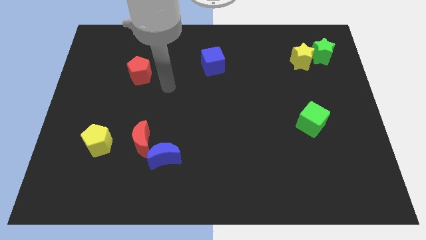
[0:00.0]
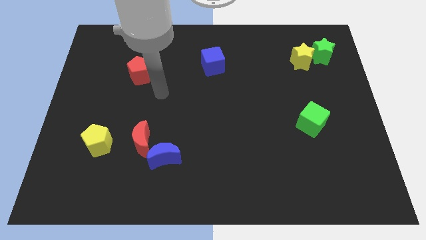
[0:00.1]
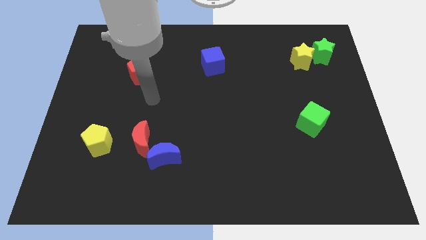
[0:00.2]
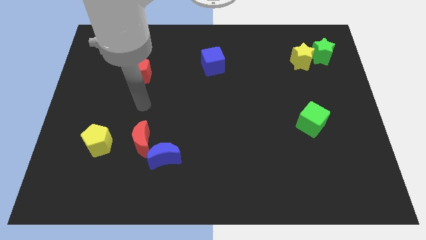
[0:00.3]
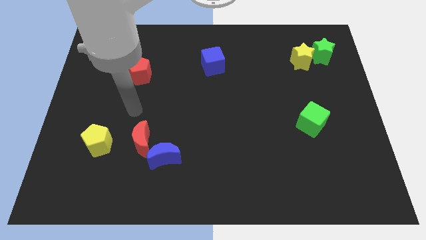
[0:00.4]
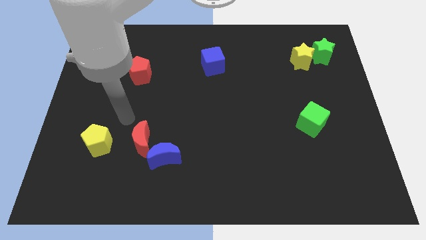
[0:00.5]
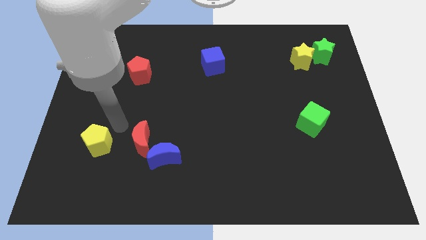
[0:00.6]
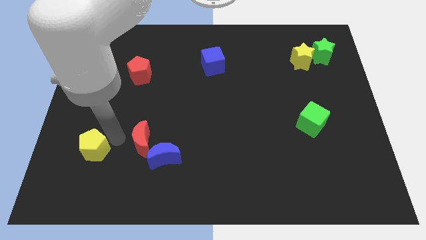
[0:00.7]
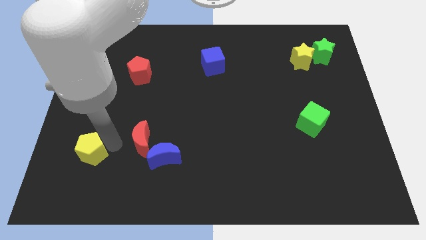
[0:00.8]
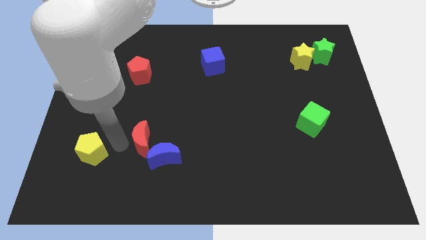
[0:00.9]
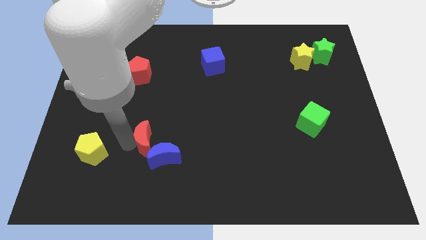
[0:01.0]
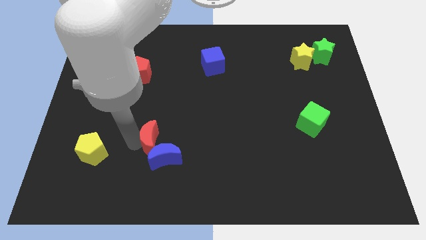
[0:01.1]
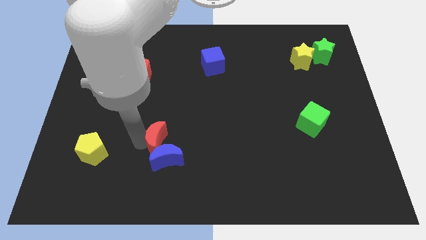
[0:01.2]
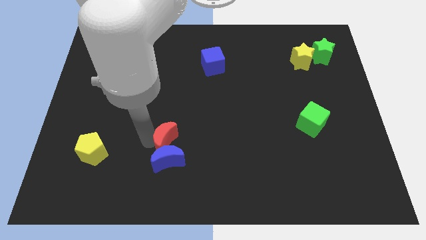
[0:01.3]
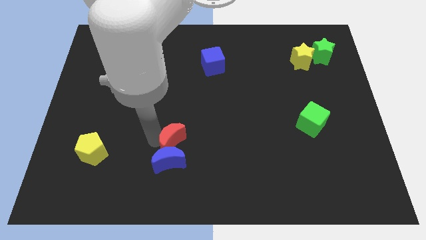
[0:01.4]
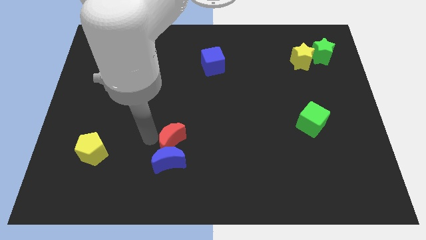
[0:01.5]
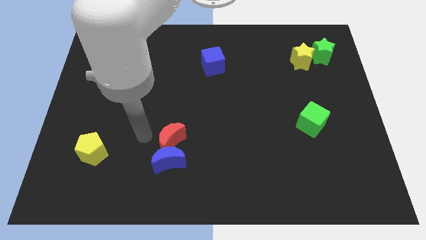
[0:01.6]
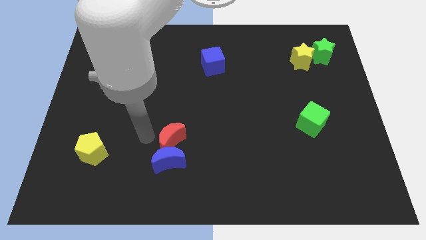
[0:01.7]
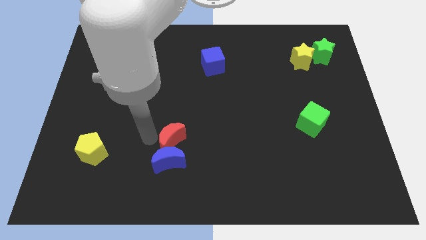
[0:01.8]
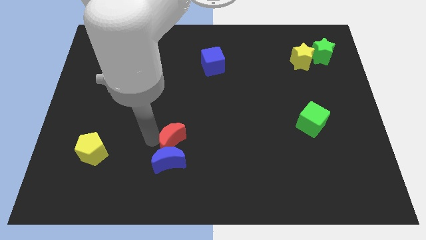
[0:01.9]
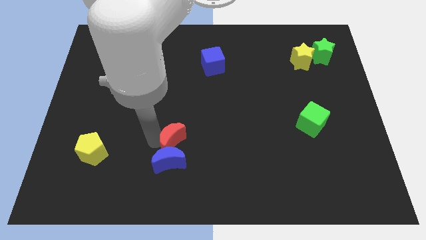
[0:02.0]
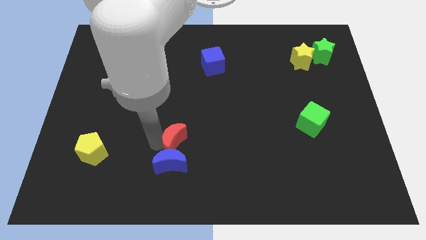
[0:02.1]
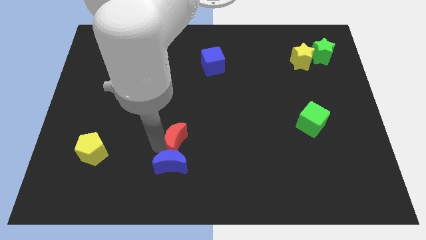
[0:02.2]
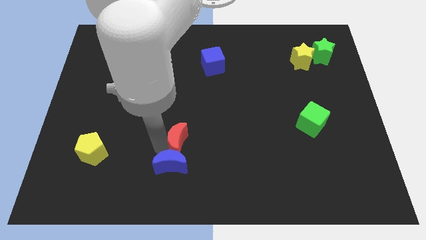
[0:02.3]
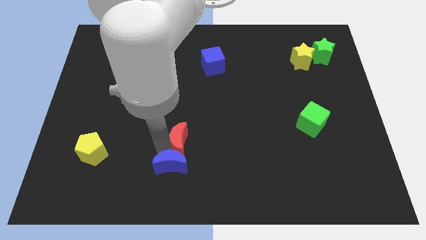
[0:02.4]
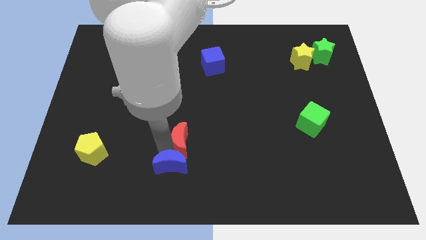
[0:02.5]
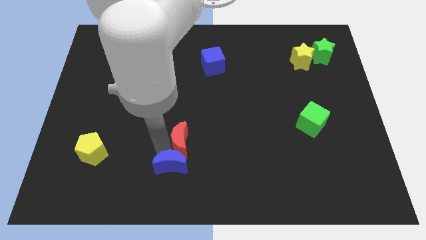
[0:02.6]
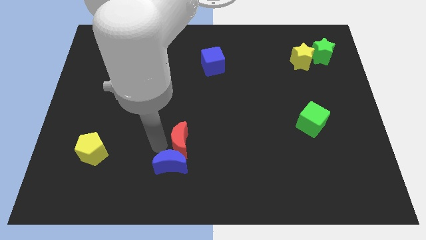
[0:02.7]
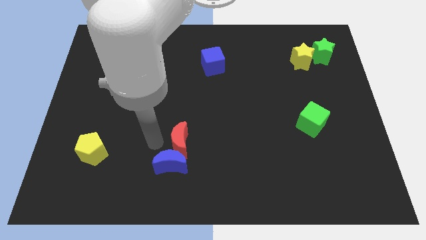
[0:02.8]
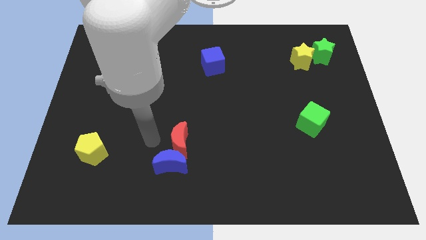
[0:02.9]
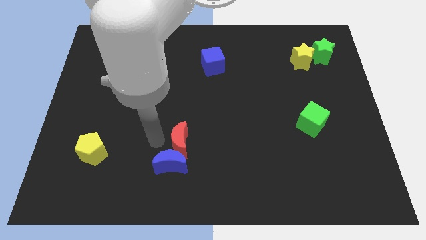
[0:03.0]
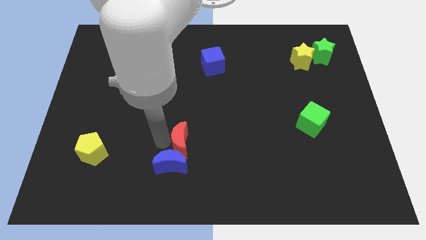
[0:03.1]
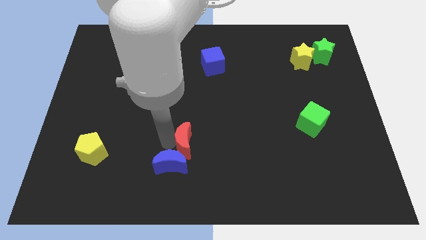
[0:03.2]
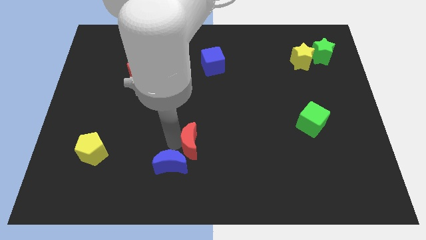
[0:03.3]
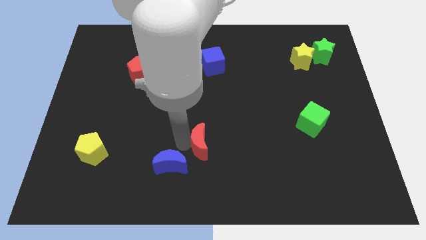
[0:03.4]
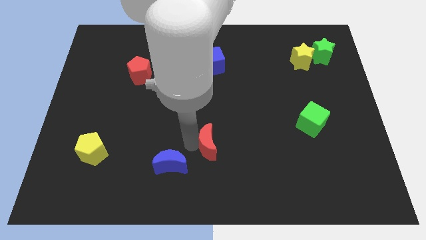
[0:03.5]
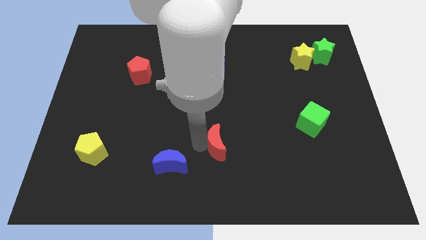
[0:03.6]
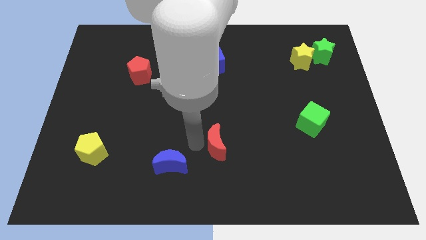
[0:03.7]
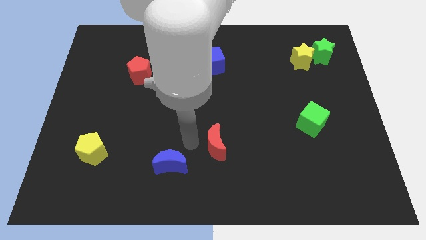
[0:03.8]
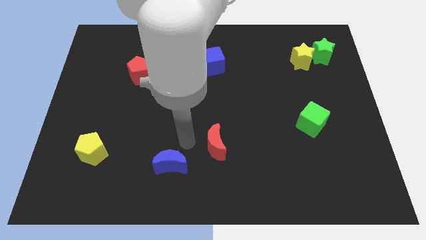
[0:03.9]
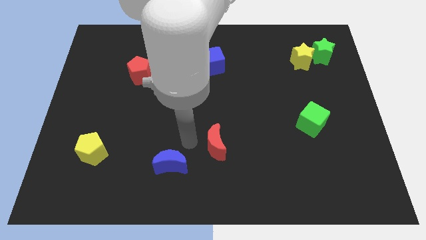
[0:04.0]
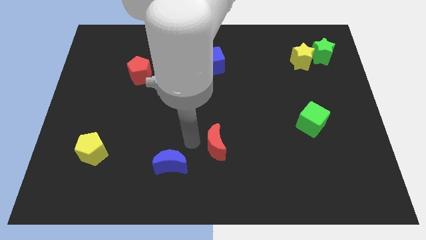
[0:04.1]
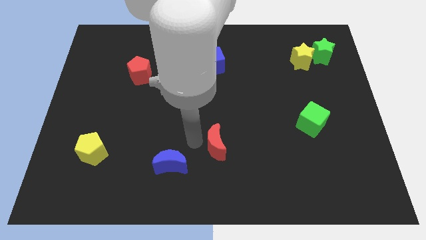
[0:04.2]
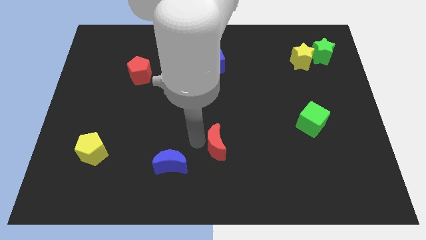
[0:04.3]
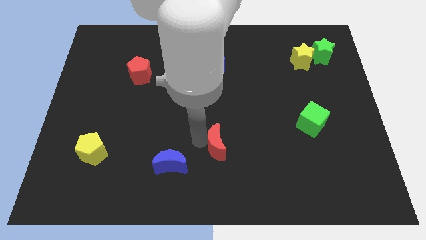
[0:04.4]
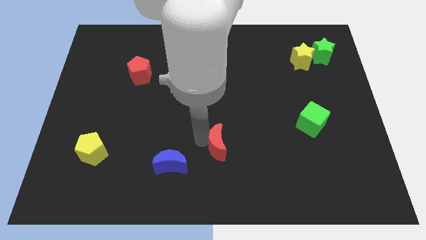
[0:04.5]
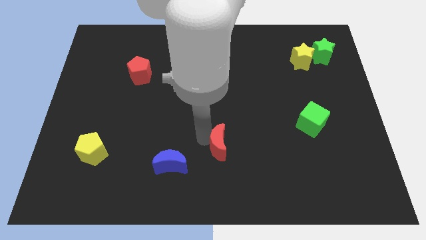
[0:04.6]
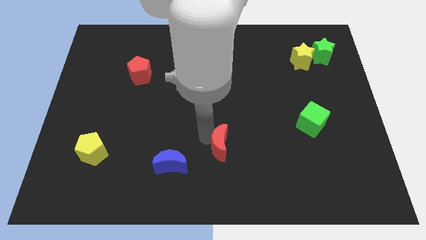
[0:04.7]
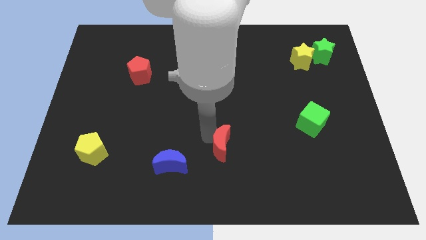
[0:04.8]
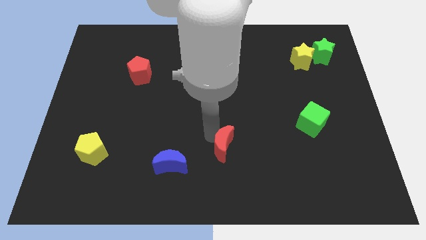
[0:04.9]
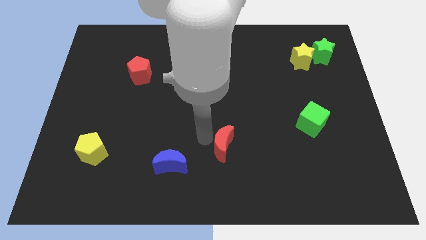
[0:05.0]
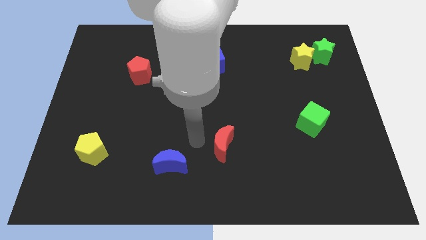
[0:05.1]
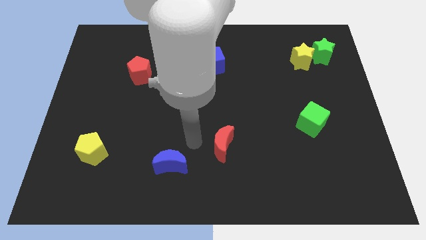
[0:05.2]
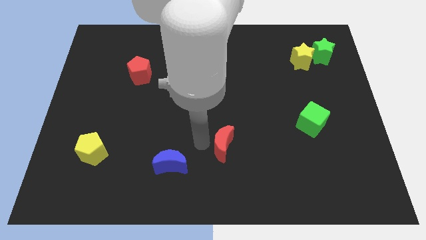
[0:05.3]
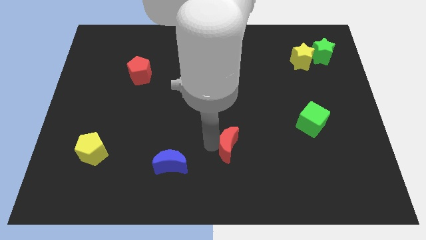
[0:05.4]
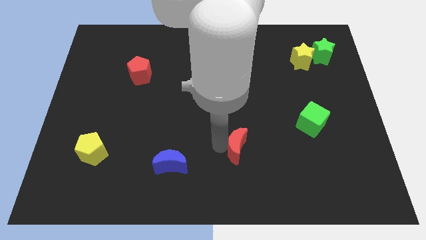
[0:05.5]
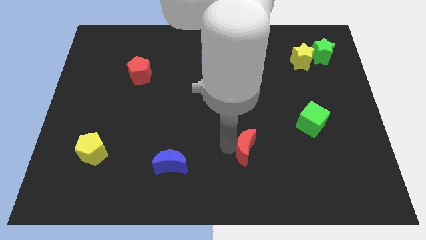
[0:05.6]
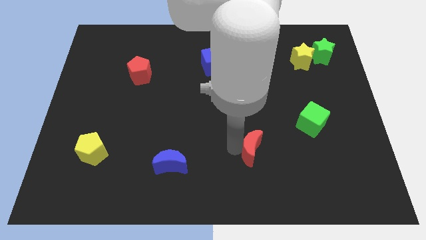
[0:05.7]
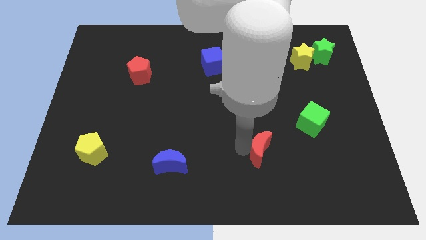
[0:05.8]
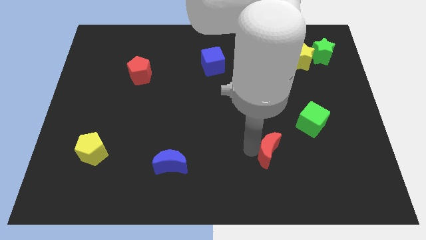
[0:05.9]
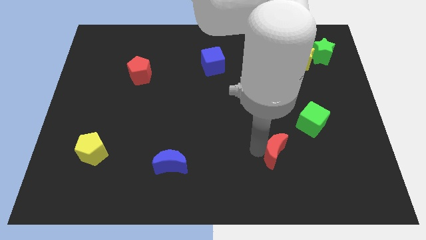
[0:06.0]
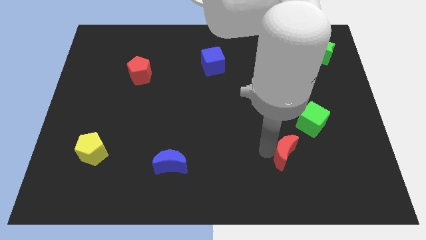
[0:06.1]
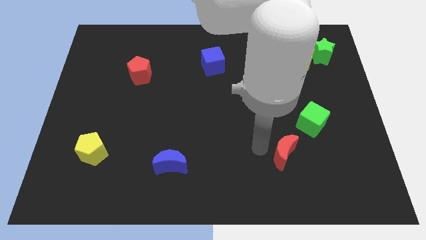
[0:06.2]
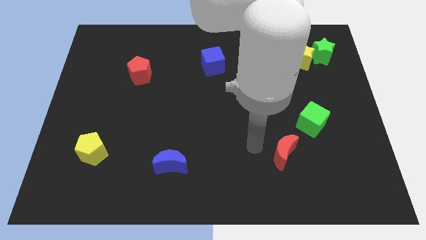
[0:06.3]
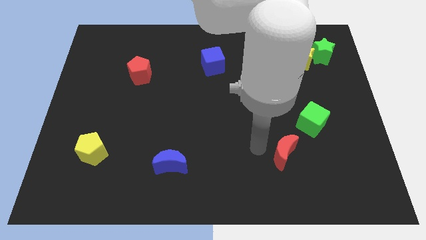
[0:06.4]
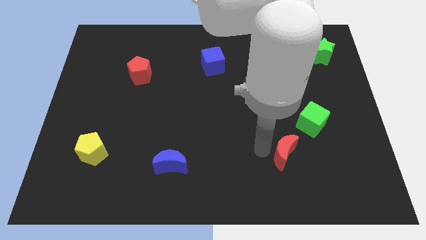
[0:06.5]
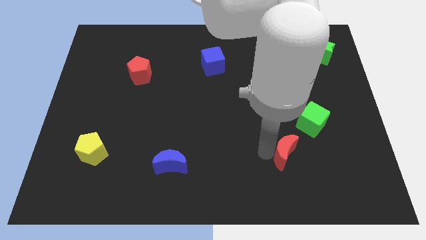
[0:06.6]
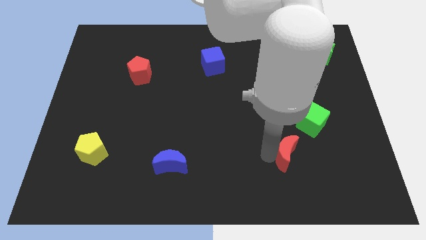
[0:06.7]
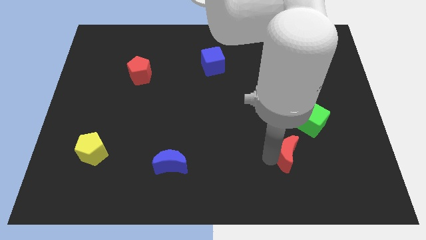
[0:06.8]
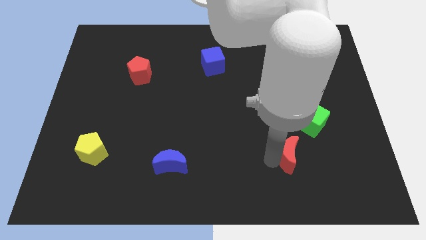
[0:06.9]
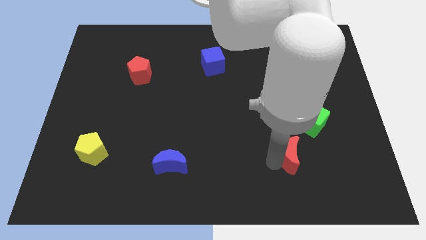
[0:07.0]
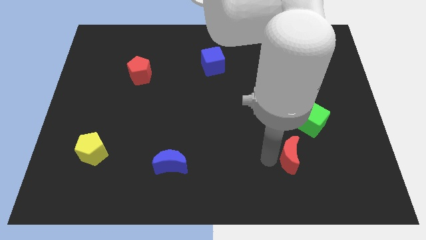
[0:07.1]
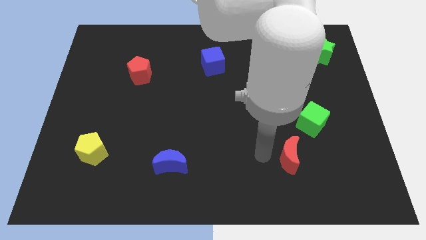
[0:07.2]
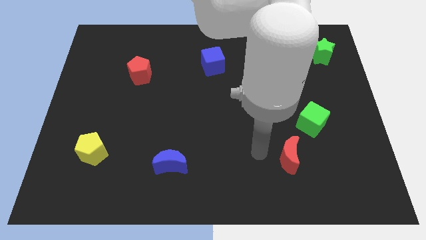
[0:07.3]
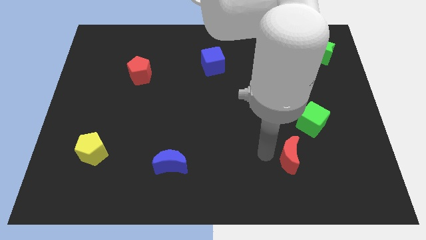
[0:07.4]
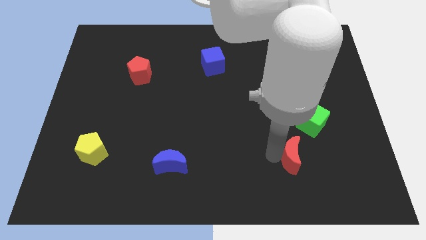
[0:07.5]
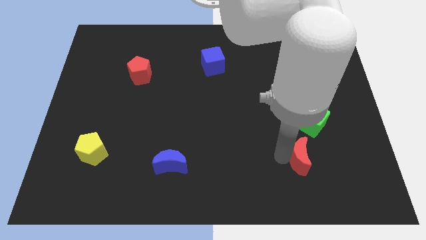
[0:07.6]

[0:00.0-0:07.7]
slide the red moon to the bottom of the green cube
